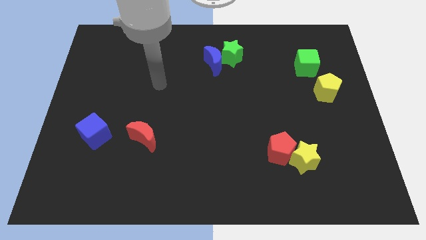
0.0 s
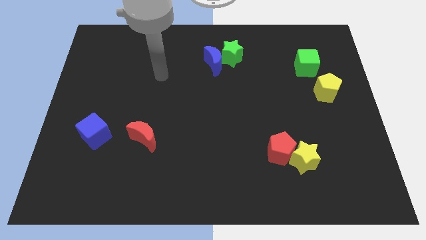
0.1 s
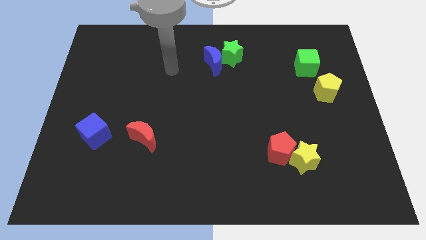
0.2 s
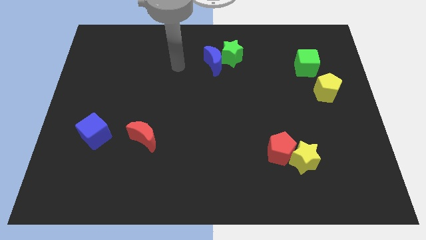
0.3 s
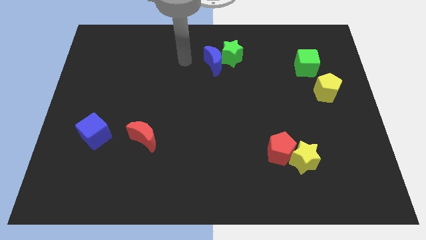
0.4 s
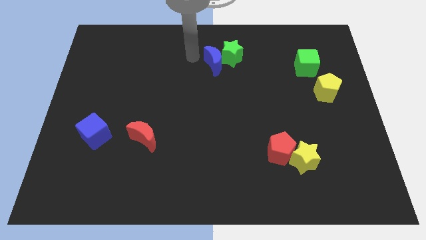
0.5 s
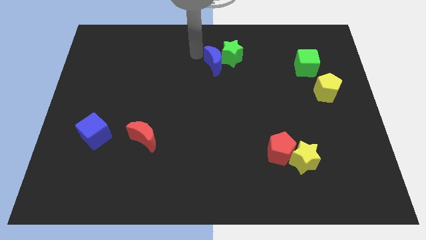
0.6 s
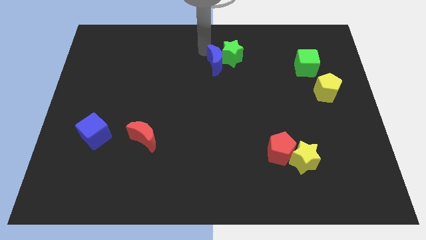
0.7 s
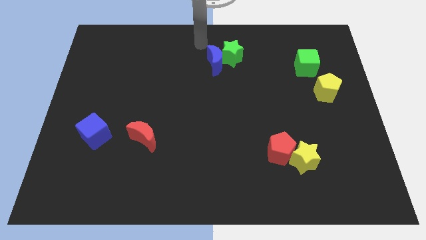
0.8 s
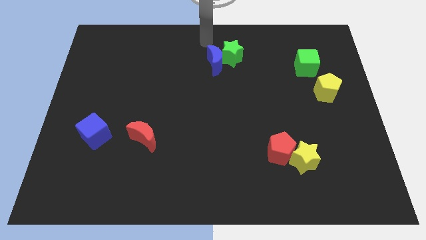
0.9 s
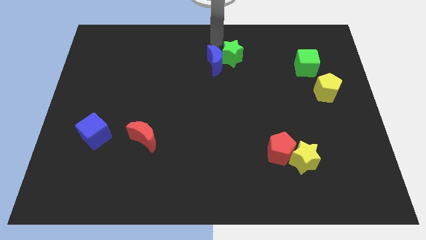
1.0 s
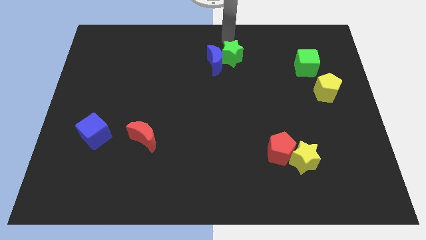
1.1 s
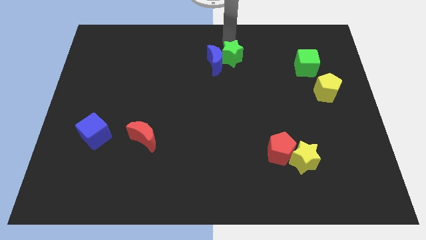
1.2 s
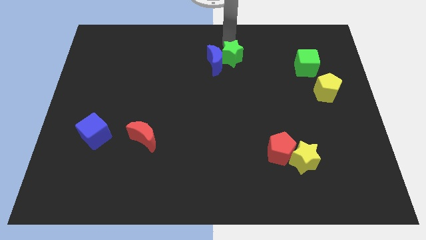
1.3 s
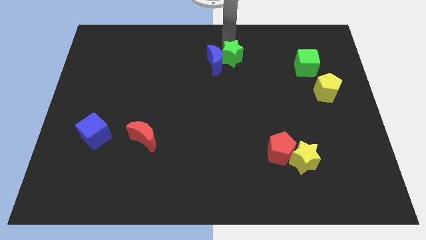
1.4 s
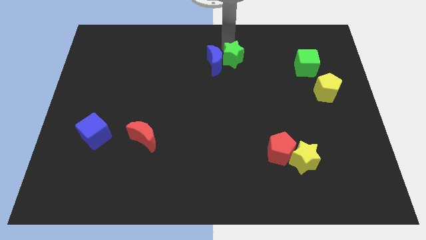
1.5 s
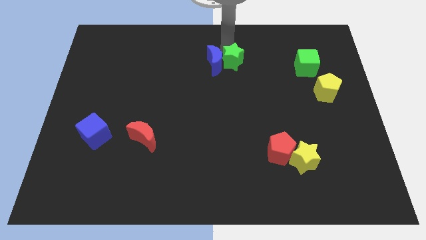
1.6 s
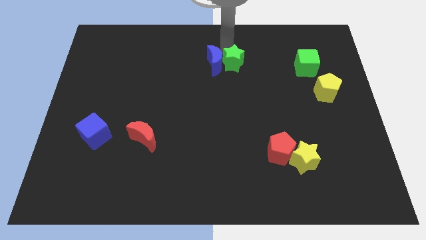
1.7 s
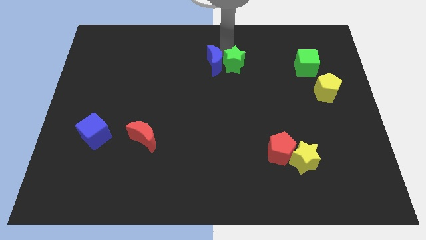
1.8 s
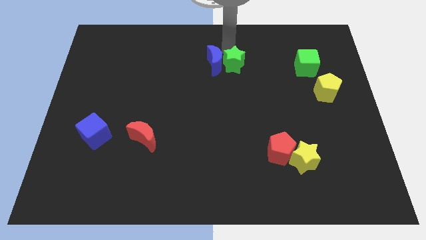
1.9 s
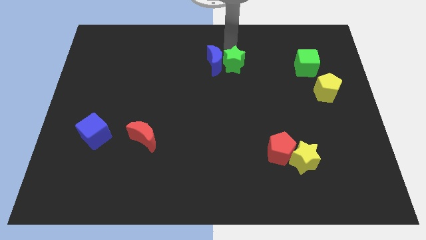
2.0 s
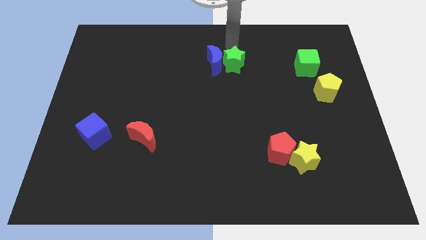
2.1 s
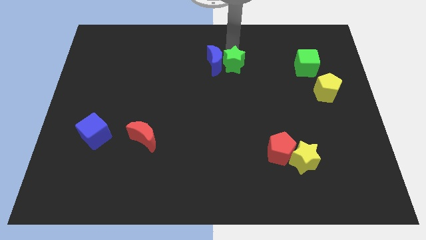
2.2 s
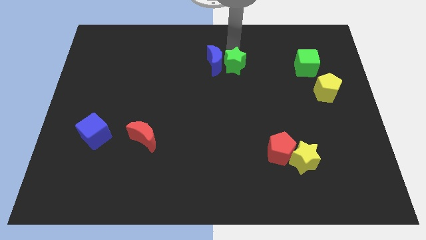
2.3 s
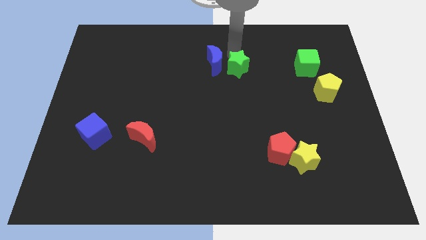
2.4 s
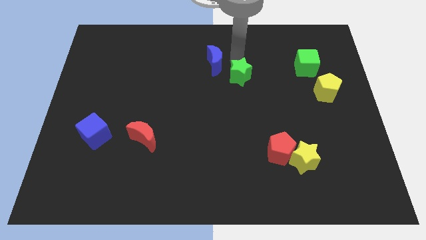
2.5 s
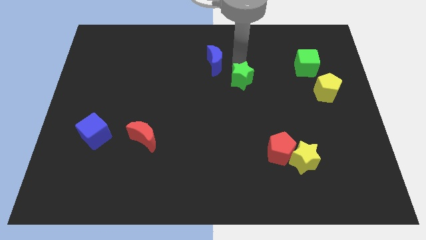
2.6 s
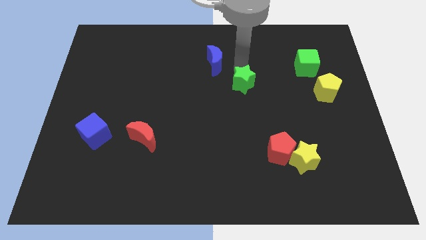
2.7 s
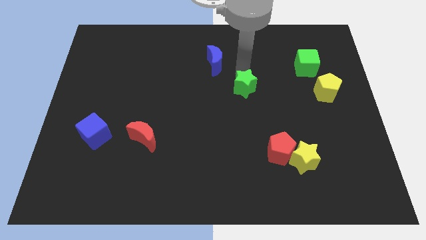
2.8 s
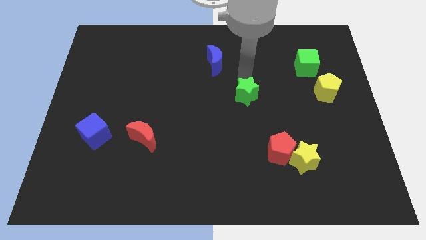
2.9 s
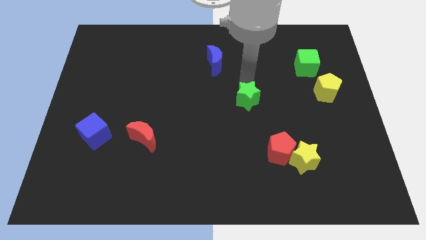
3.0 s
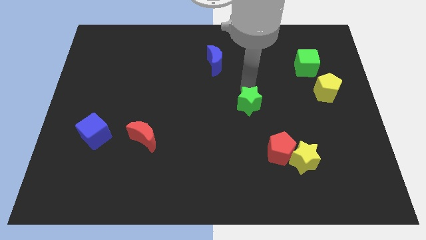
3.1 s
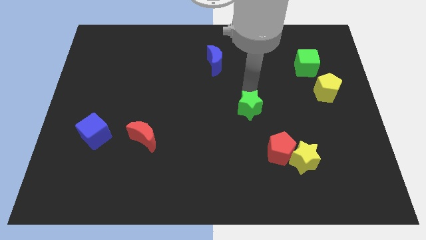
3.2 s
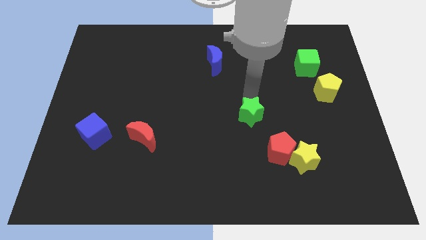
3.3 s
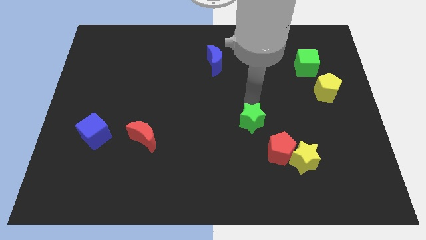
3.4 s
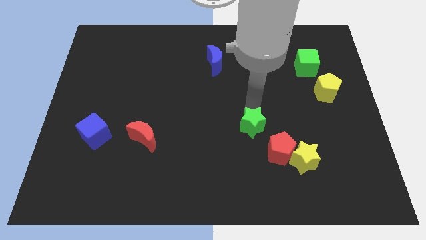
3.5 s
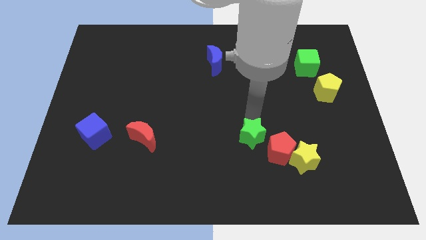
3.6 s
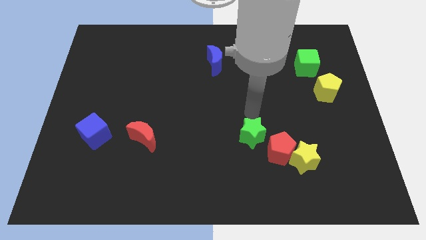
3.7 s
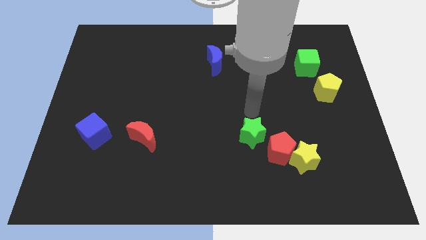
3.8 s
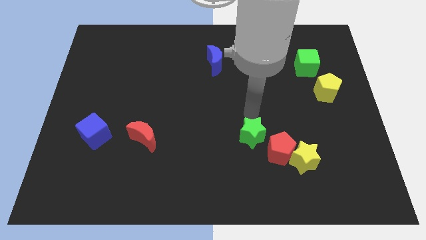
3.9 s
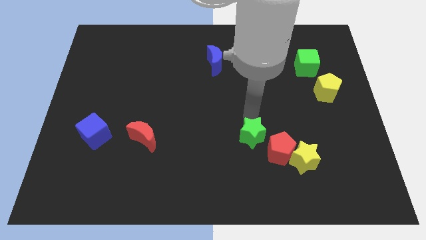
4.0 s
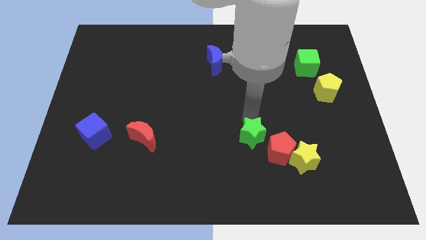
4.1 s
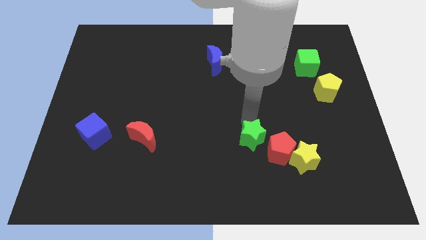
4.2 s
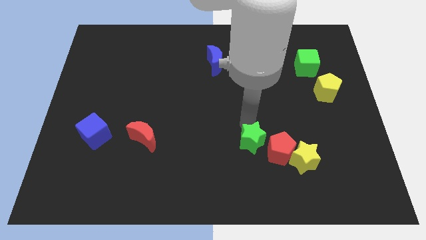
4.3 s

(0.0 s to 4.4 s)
slide the green star to the left side of the yellow star

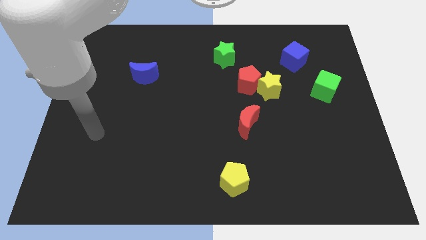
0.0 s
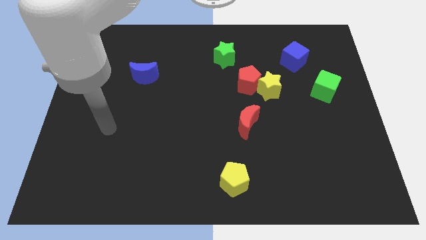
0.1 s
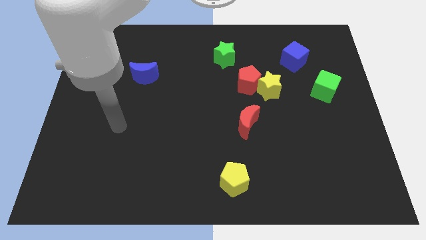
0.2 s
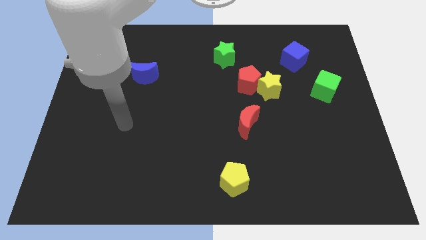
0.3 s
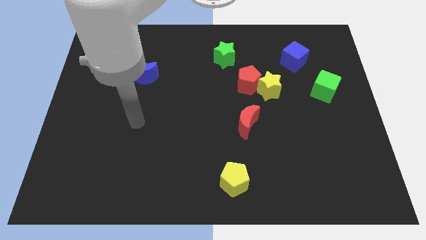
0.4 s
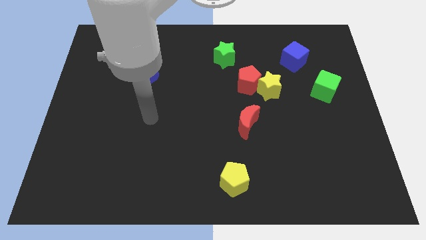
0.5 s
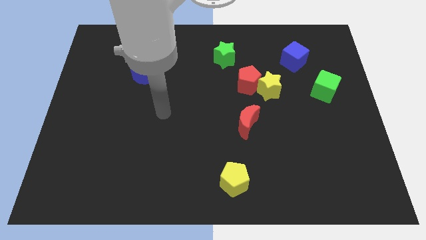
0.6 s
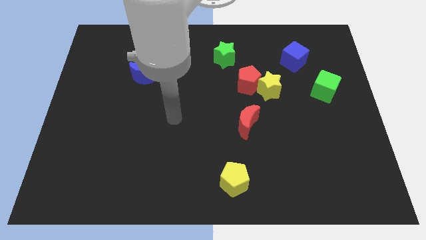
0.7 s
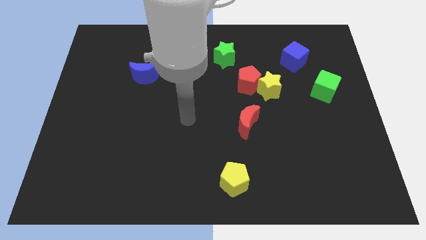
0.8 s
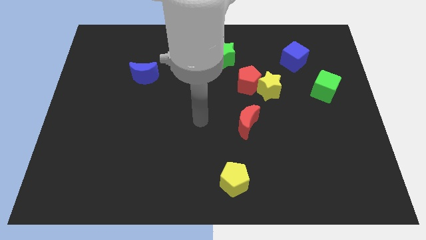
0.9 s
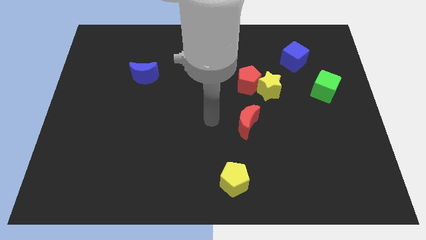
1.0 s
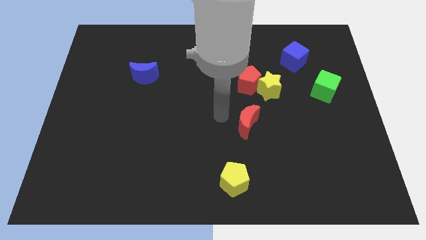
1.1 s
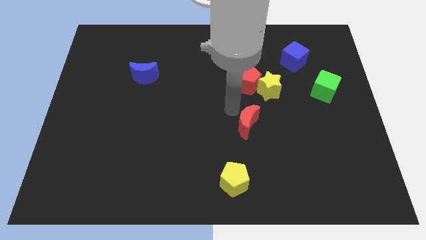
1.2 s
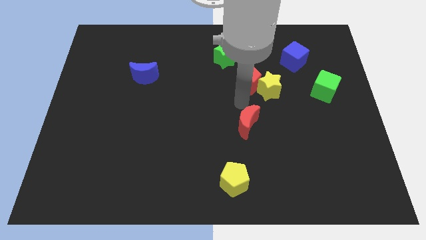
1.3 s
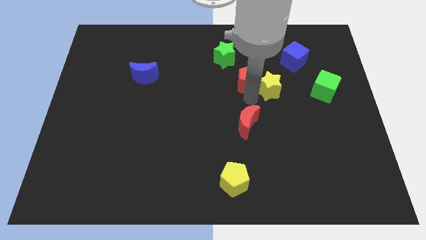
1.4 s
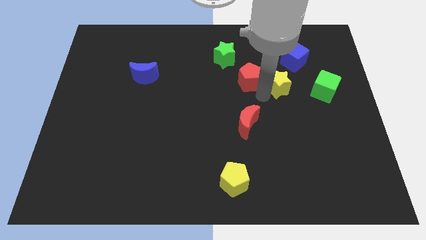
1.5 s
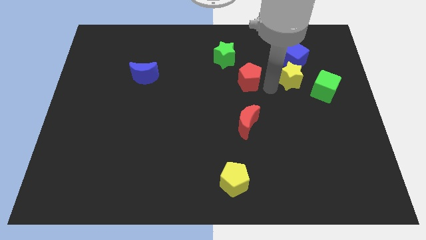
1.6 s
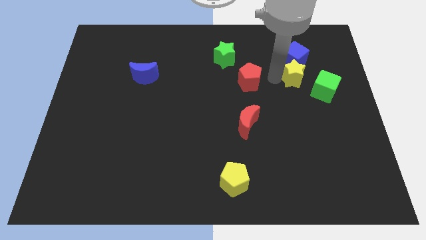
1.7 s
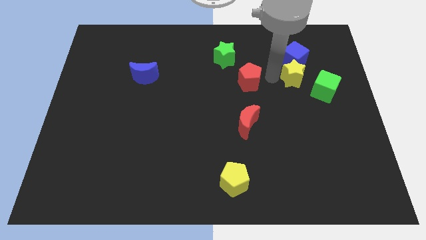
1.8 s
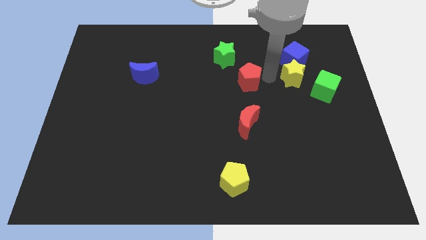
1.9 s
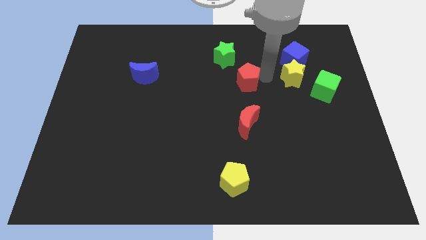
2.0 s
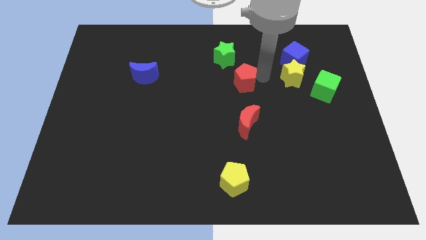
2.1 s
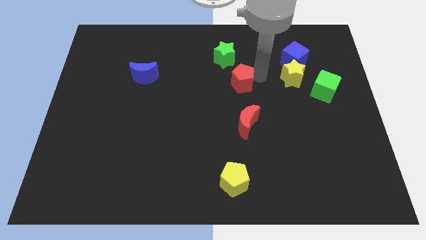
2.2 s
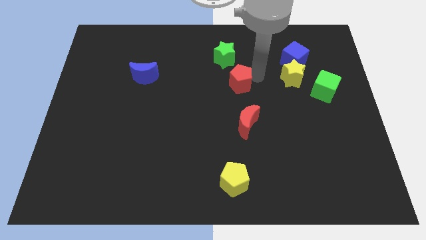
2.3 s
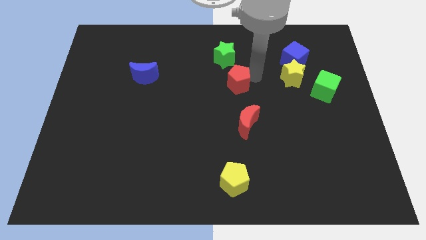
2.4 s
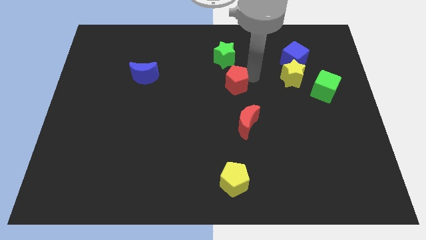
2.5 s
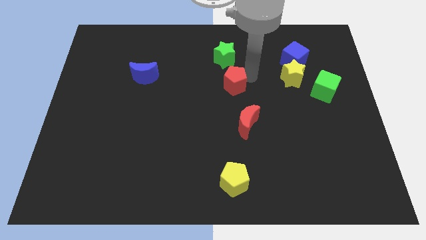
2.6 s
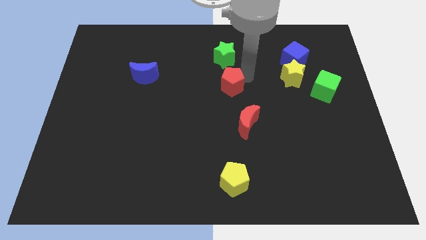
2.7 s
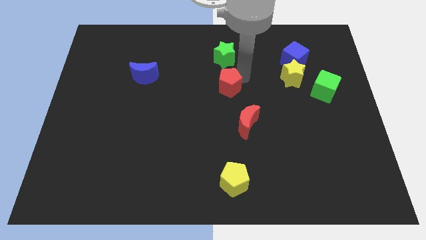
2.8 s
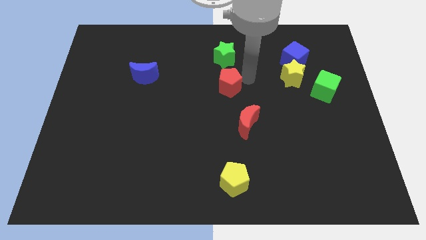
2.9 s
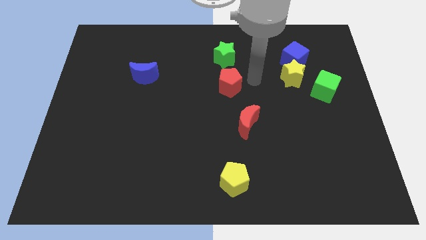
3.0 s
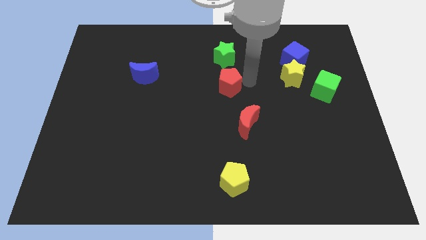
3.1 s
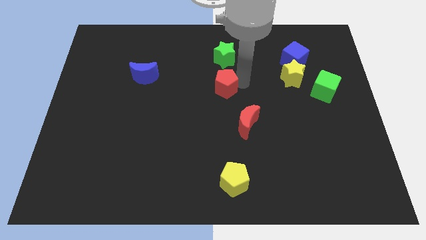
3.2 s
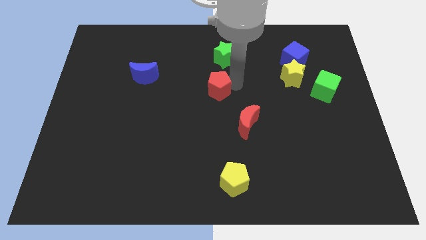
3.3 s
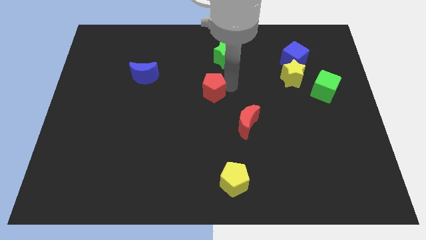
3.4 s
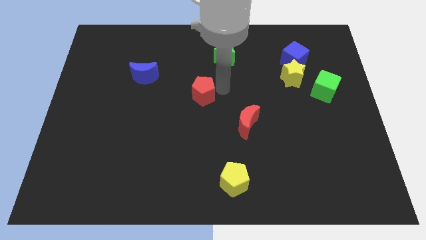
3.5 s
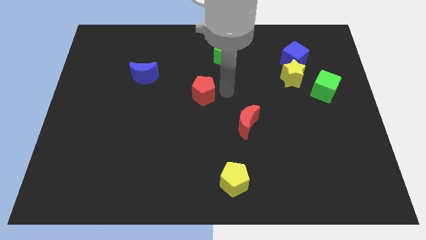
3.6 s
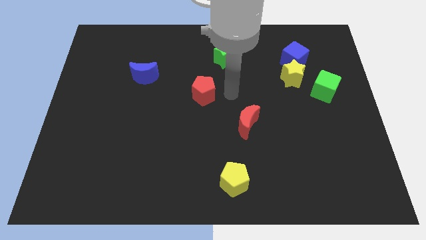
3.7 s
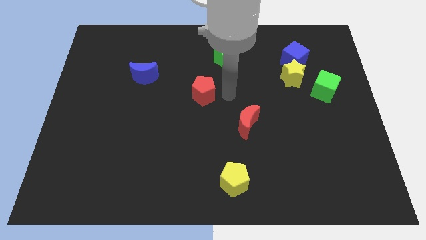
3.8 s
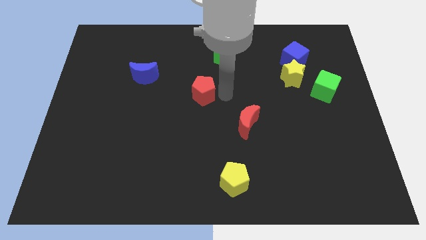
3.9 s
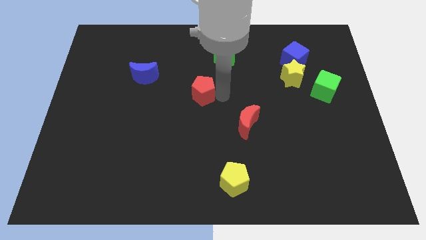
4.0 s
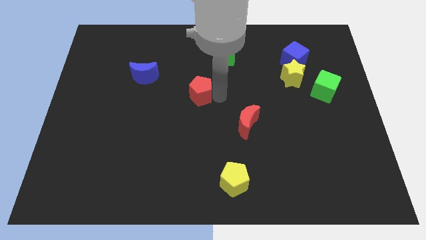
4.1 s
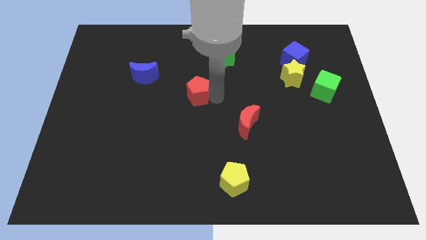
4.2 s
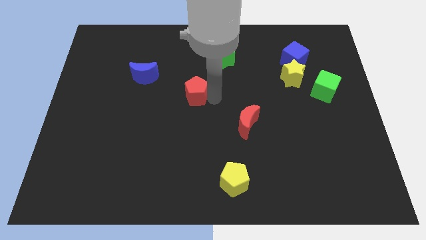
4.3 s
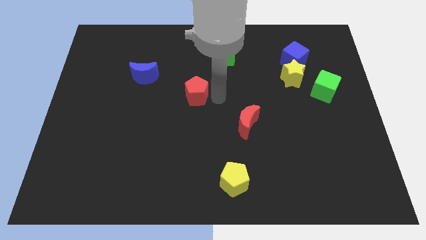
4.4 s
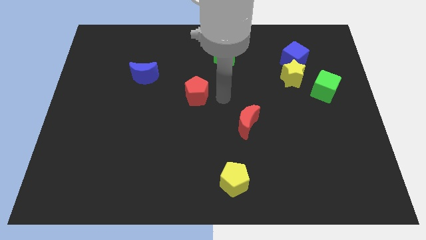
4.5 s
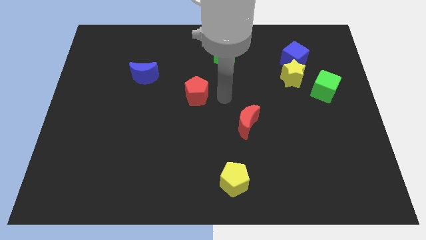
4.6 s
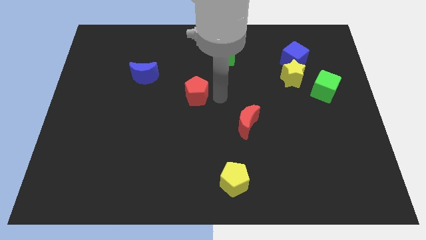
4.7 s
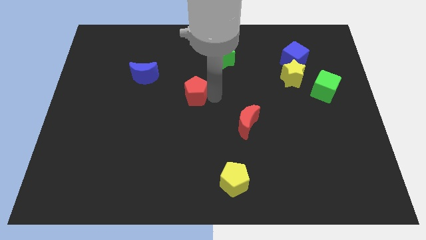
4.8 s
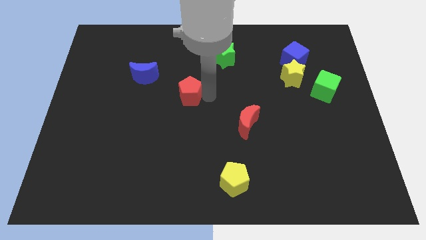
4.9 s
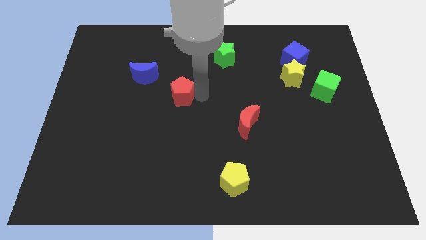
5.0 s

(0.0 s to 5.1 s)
slide the red pentagon to the bottom right of the blue moon
